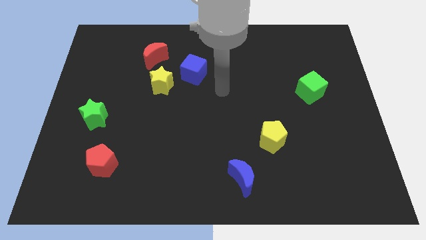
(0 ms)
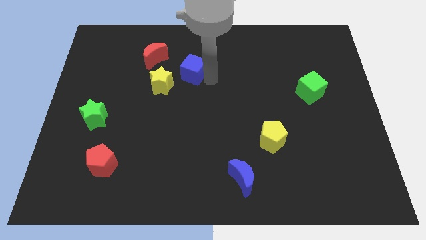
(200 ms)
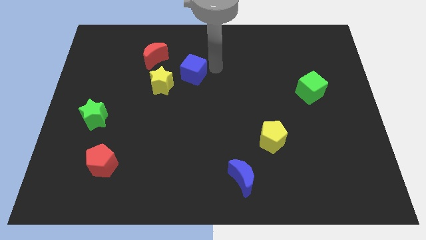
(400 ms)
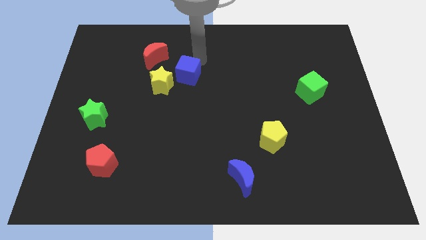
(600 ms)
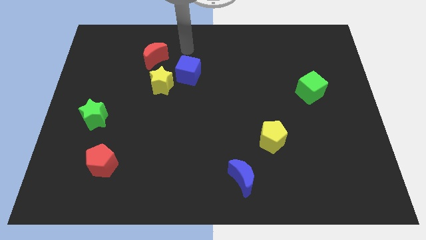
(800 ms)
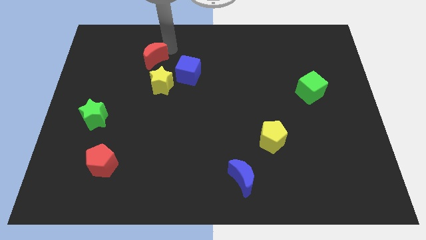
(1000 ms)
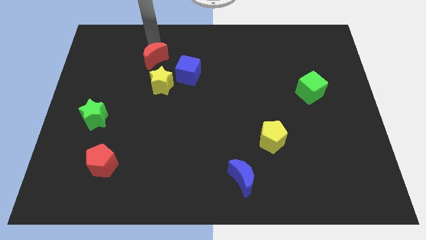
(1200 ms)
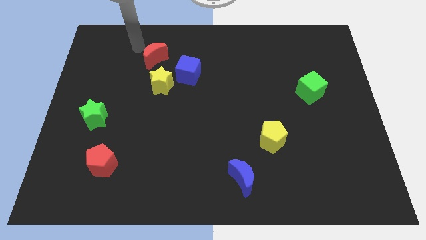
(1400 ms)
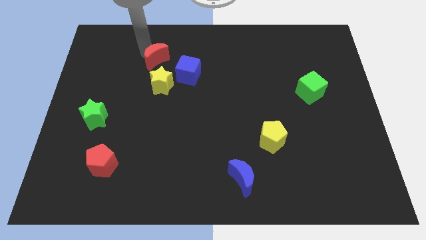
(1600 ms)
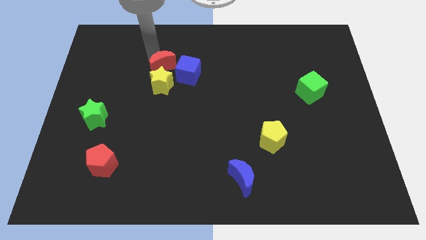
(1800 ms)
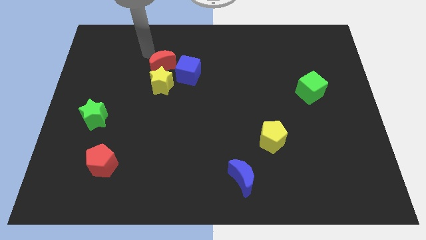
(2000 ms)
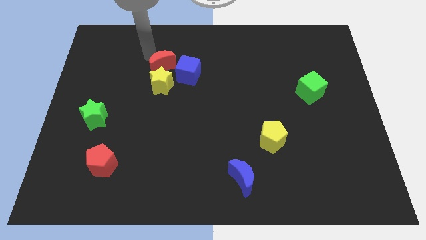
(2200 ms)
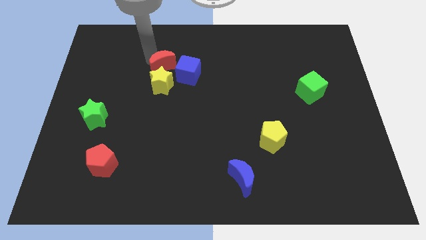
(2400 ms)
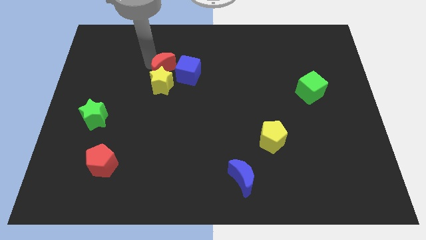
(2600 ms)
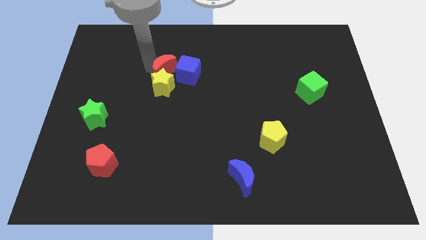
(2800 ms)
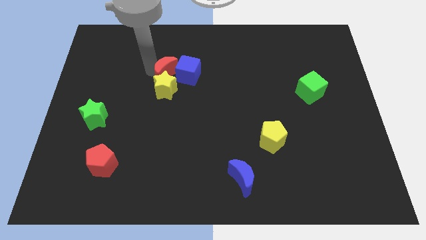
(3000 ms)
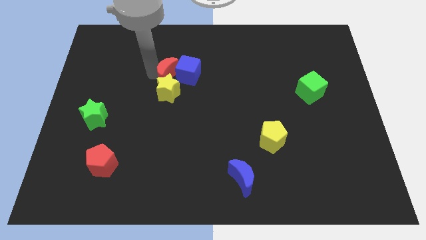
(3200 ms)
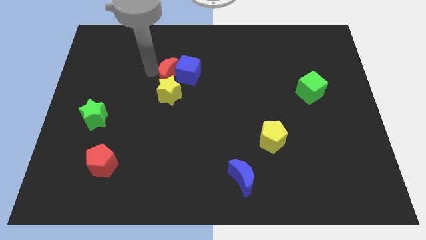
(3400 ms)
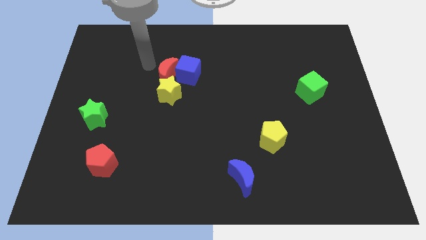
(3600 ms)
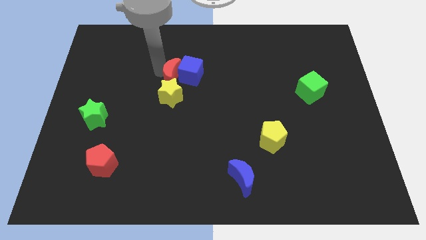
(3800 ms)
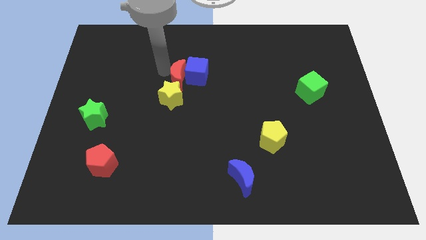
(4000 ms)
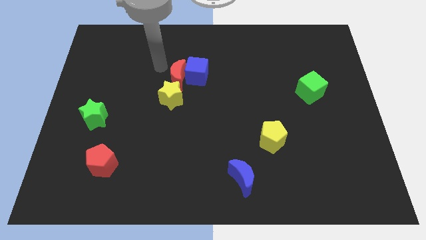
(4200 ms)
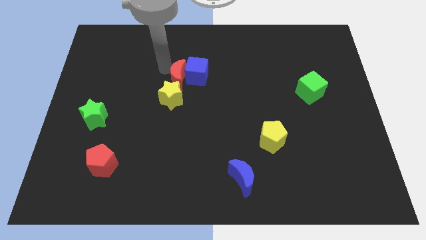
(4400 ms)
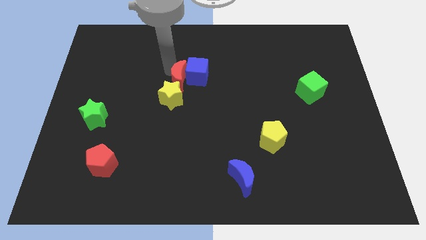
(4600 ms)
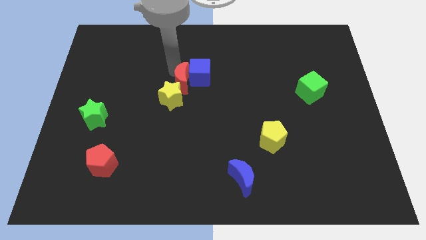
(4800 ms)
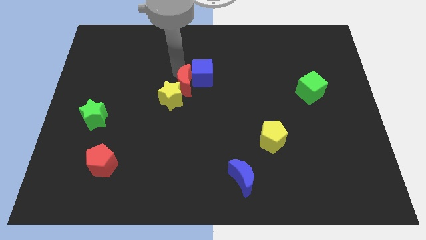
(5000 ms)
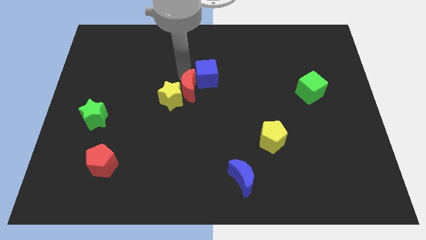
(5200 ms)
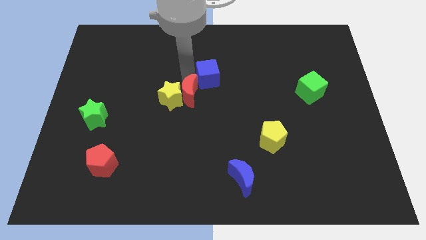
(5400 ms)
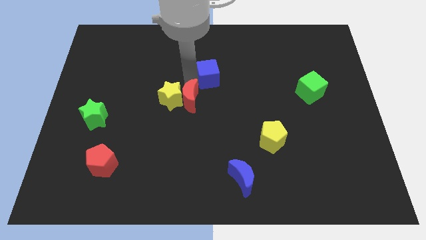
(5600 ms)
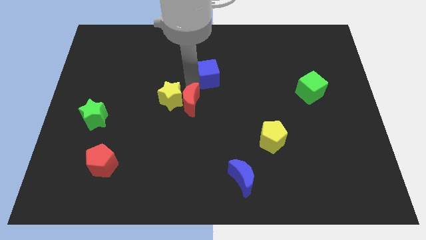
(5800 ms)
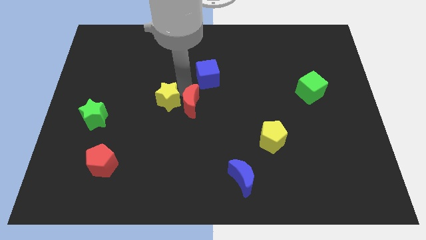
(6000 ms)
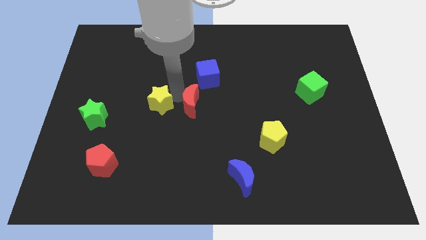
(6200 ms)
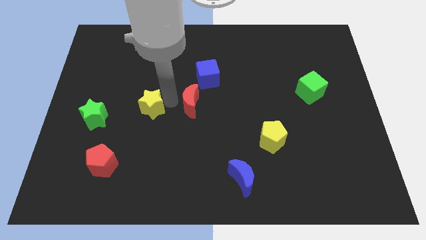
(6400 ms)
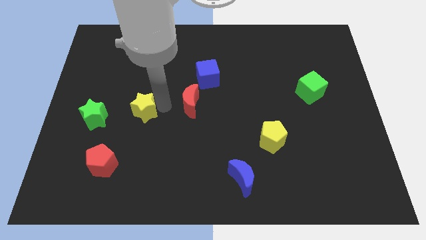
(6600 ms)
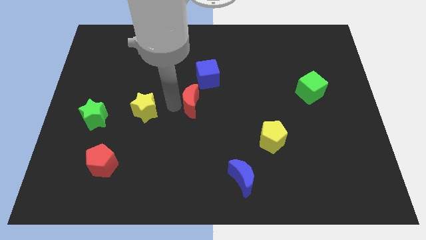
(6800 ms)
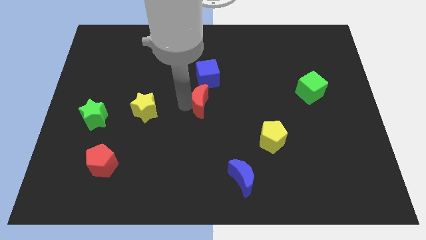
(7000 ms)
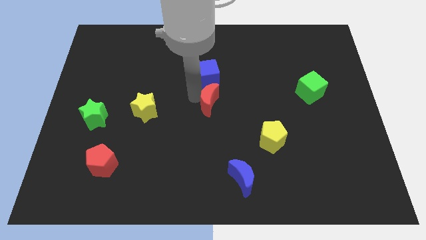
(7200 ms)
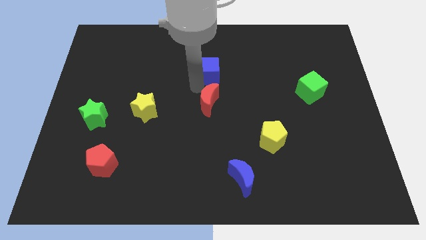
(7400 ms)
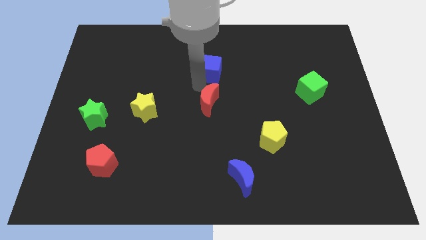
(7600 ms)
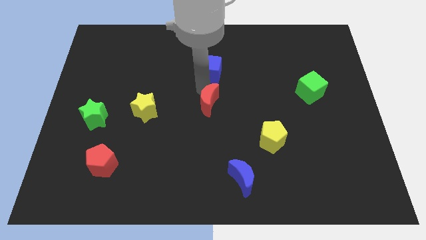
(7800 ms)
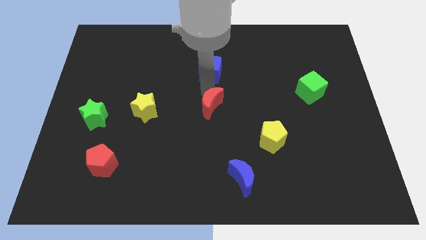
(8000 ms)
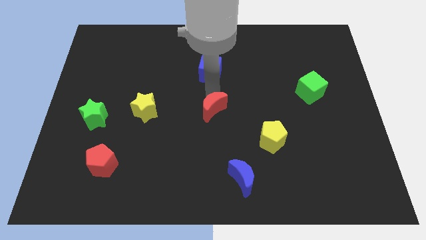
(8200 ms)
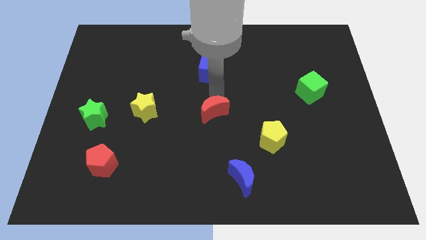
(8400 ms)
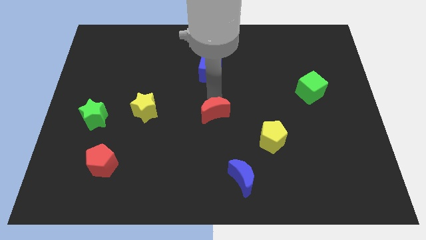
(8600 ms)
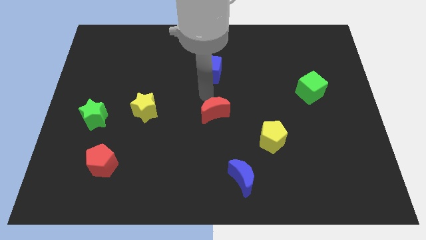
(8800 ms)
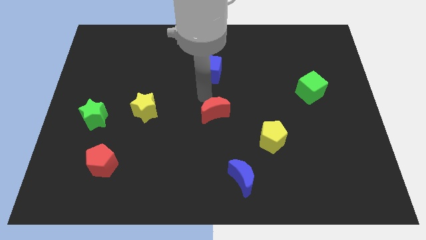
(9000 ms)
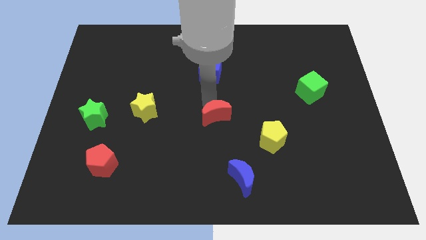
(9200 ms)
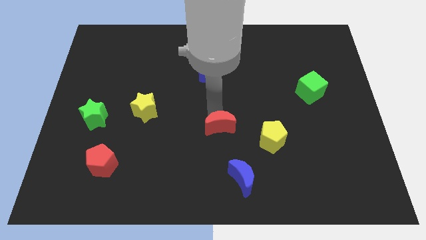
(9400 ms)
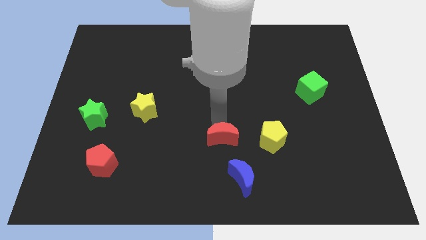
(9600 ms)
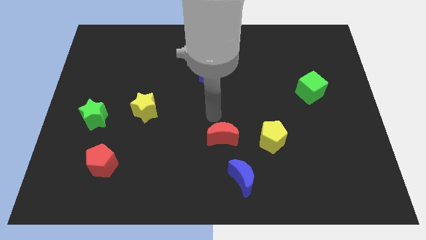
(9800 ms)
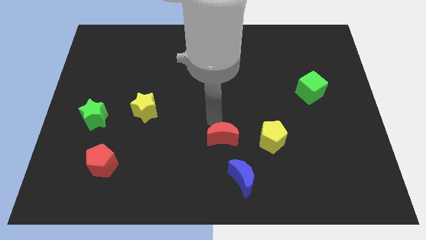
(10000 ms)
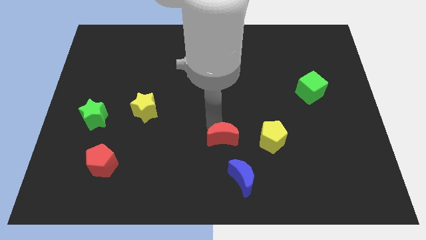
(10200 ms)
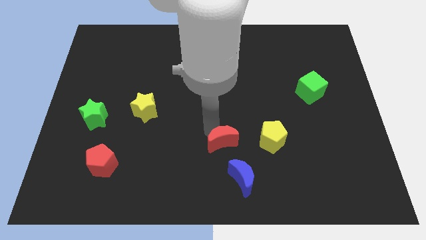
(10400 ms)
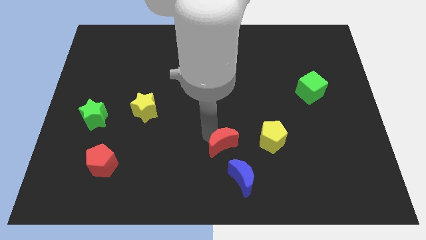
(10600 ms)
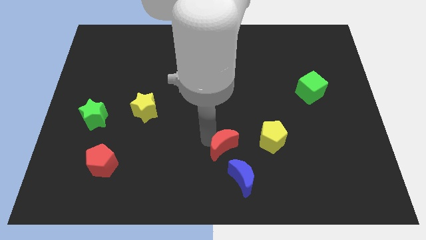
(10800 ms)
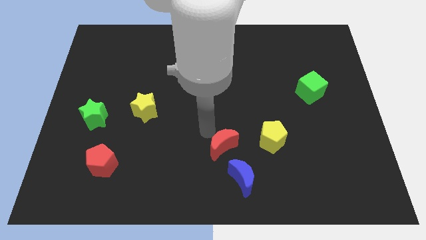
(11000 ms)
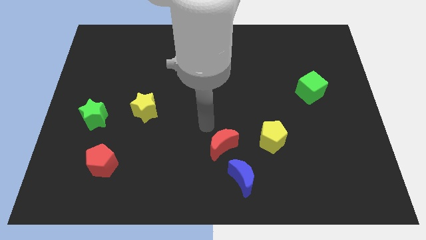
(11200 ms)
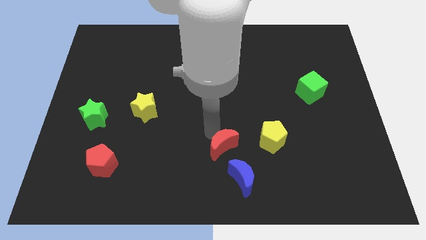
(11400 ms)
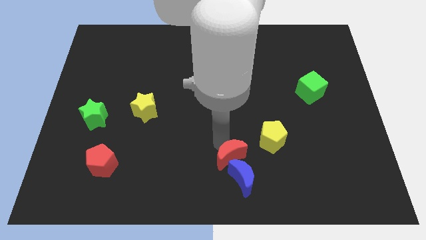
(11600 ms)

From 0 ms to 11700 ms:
push the red moon to the blue moon

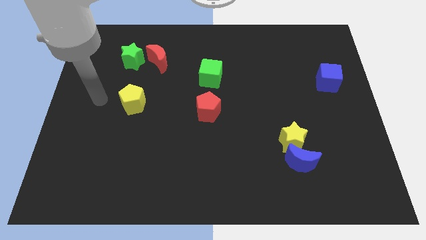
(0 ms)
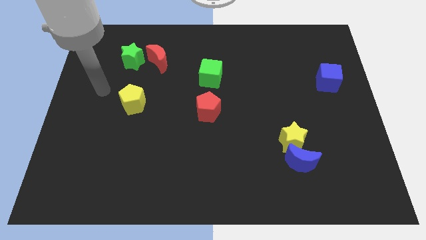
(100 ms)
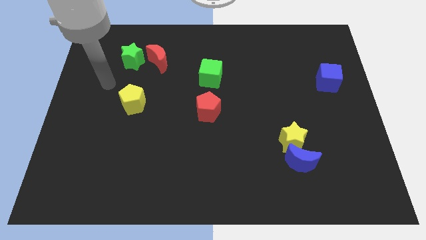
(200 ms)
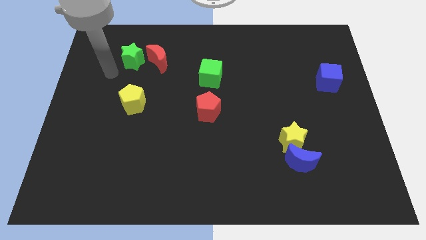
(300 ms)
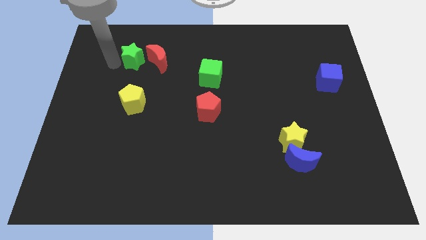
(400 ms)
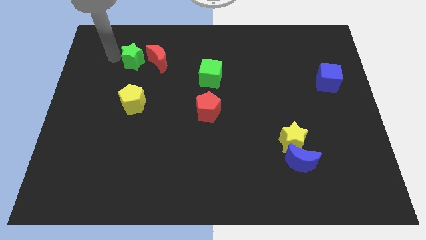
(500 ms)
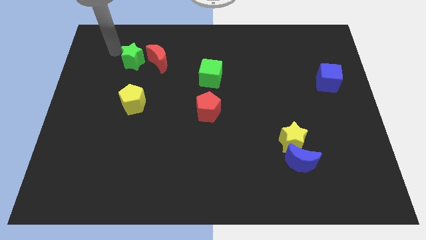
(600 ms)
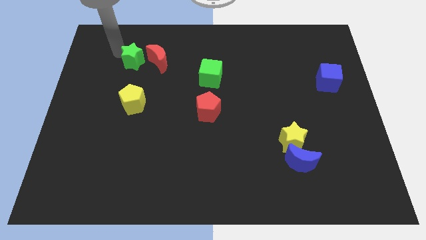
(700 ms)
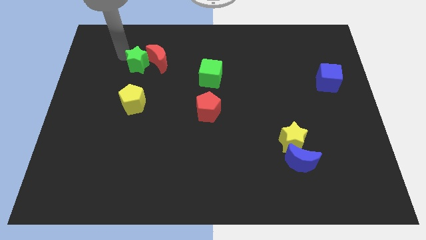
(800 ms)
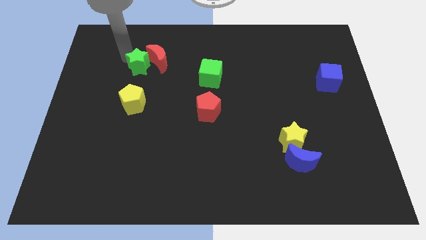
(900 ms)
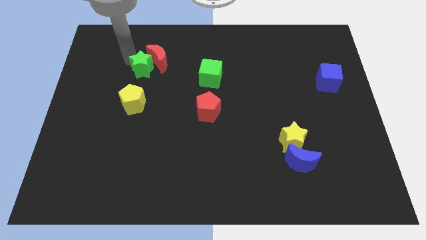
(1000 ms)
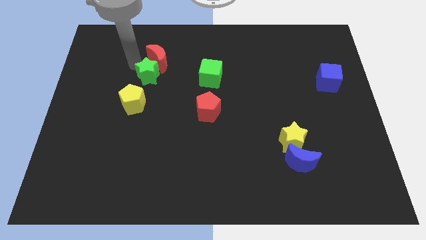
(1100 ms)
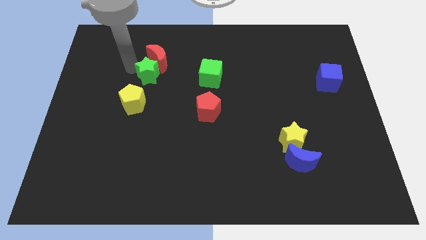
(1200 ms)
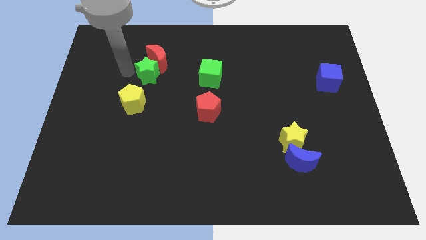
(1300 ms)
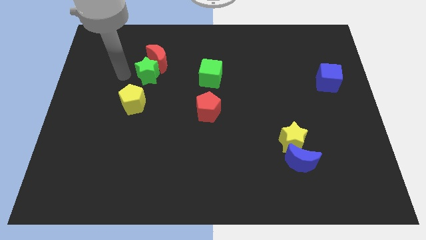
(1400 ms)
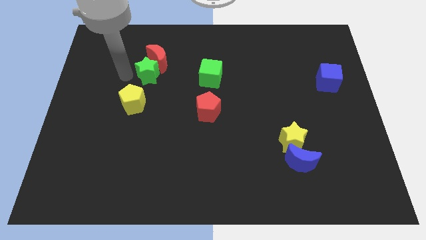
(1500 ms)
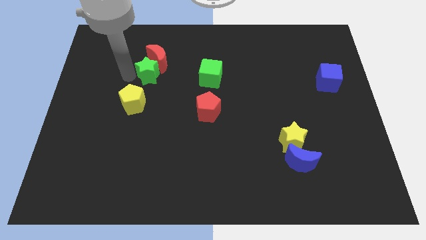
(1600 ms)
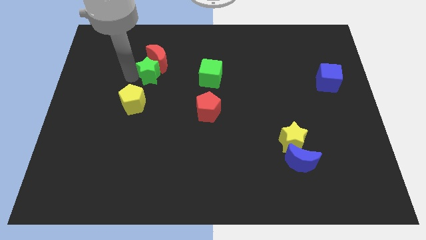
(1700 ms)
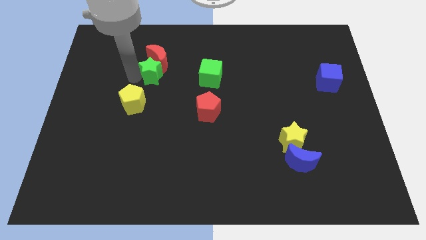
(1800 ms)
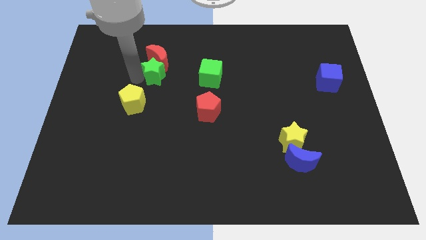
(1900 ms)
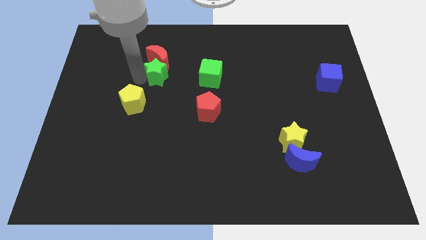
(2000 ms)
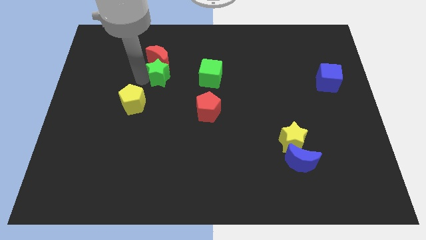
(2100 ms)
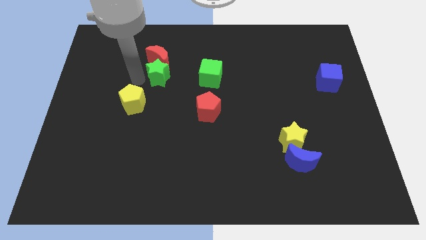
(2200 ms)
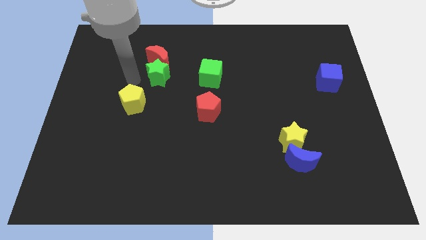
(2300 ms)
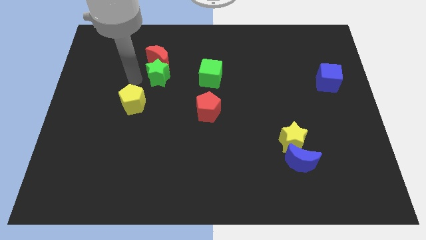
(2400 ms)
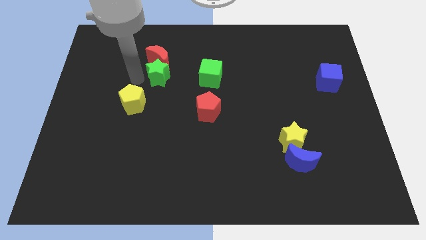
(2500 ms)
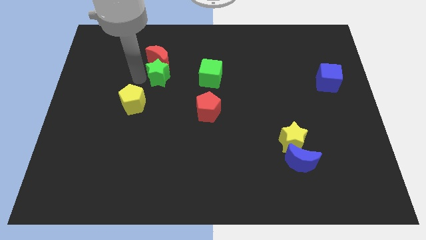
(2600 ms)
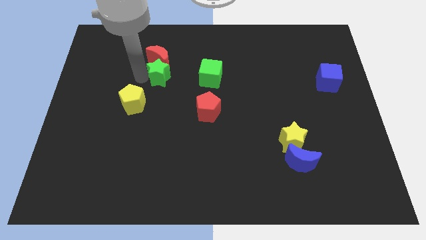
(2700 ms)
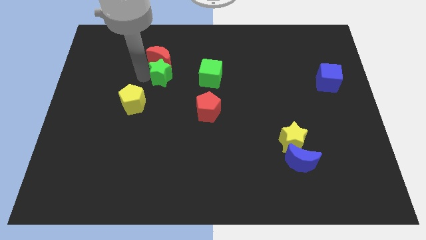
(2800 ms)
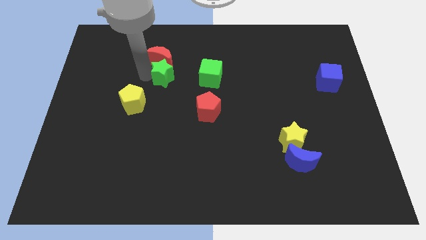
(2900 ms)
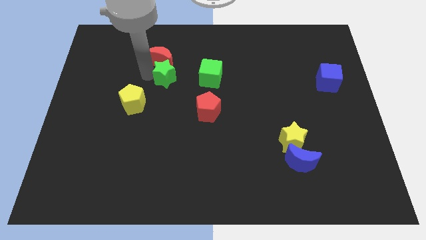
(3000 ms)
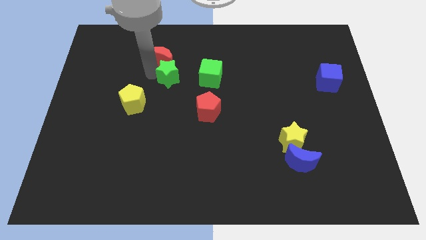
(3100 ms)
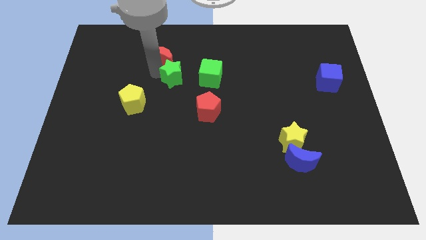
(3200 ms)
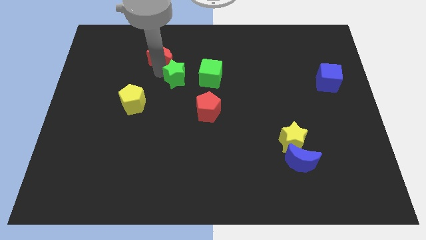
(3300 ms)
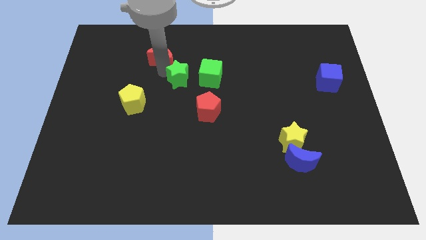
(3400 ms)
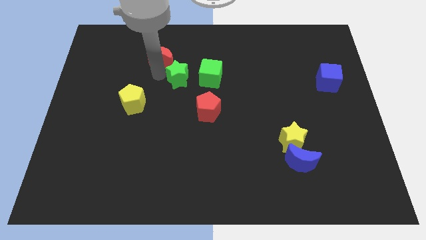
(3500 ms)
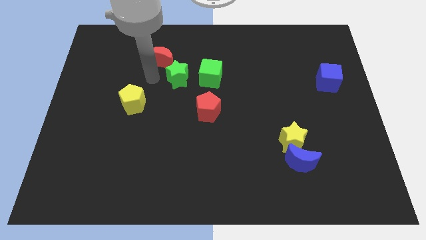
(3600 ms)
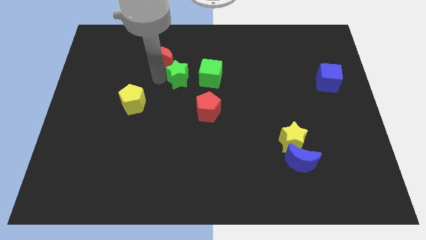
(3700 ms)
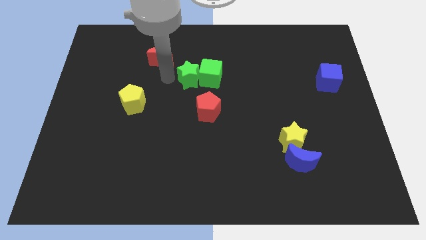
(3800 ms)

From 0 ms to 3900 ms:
put the green star to the green cube
